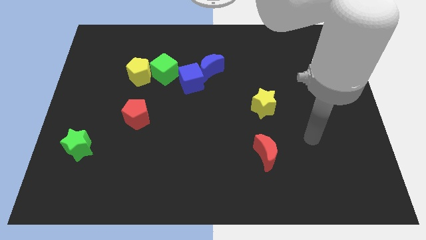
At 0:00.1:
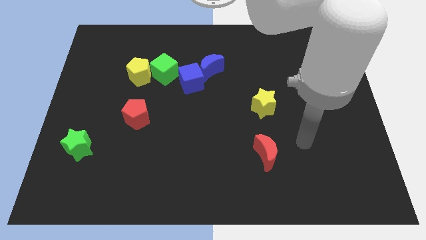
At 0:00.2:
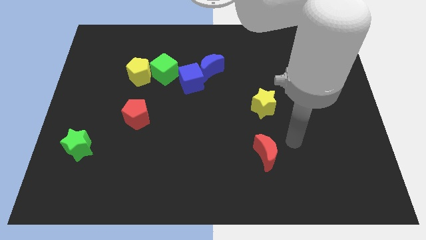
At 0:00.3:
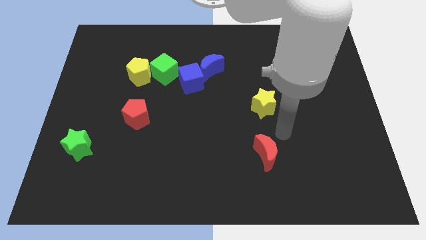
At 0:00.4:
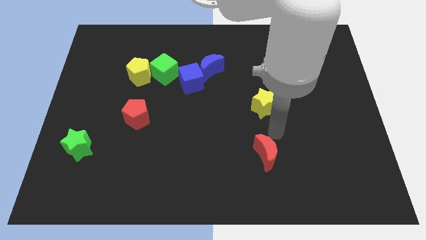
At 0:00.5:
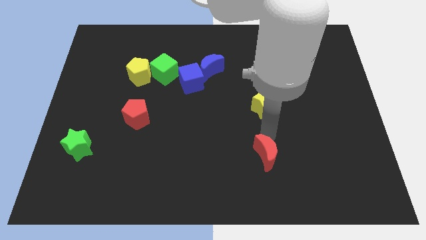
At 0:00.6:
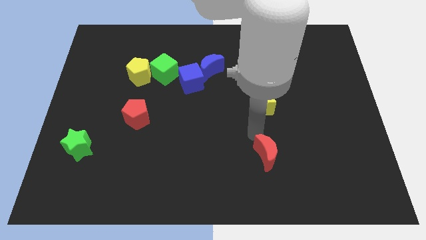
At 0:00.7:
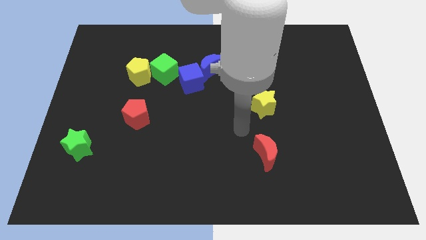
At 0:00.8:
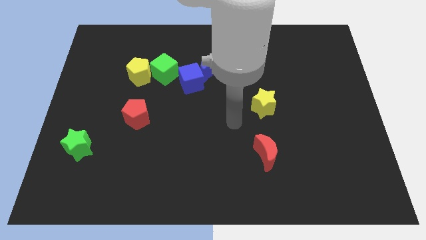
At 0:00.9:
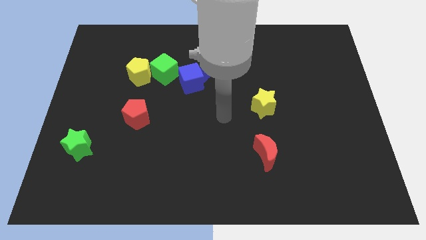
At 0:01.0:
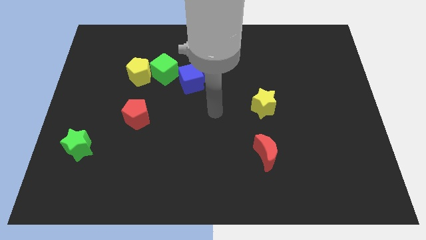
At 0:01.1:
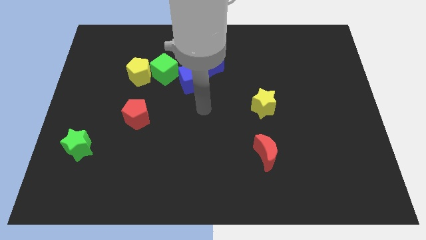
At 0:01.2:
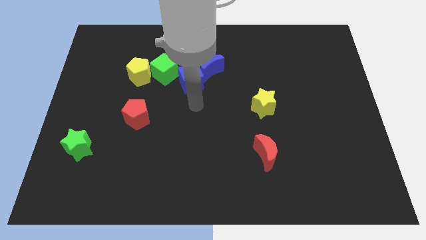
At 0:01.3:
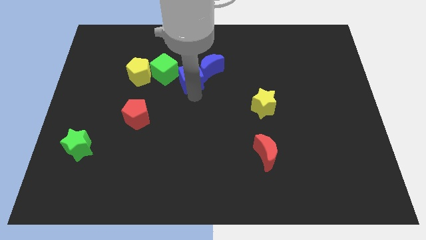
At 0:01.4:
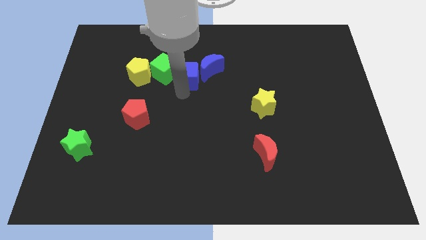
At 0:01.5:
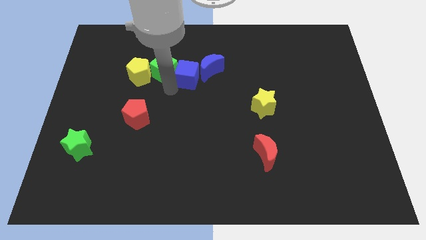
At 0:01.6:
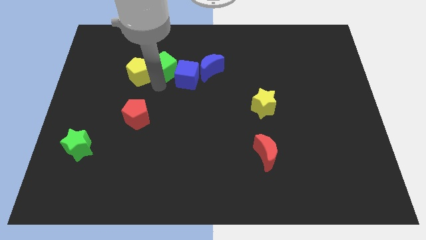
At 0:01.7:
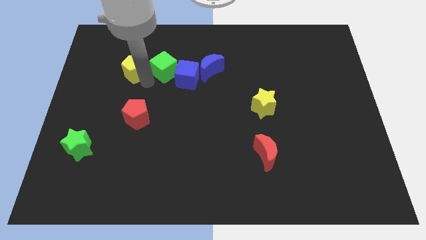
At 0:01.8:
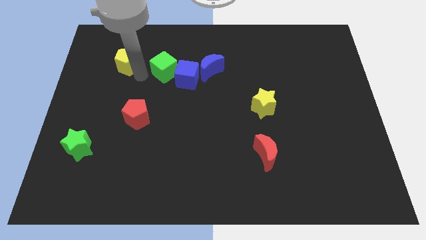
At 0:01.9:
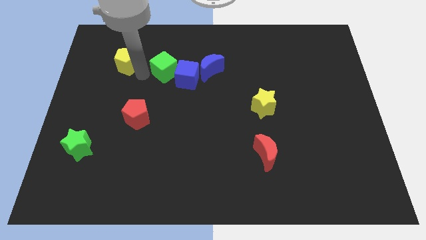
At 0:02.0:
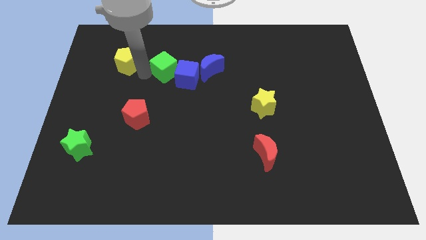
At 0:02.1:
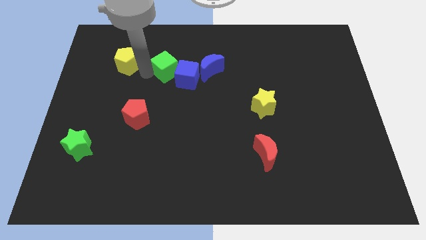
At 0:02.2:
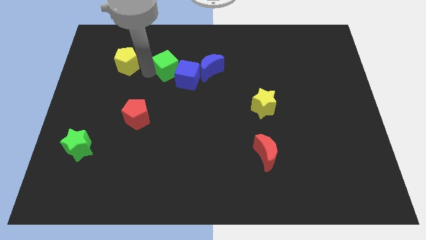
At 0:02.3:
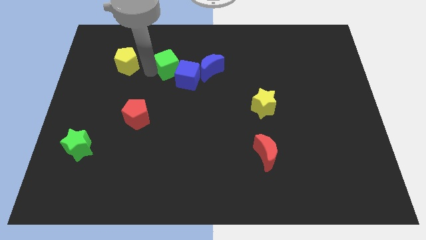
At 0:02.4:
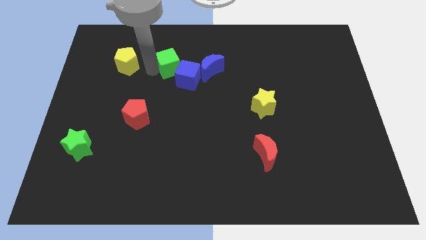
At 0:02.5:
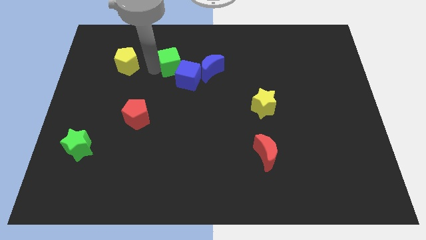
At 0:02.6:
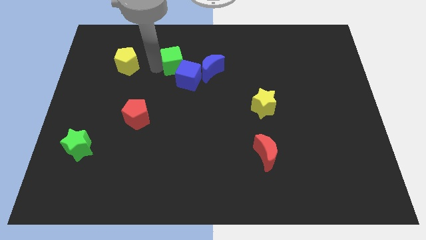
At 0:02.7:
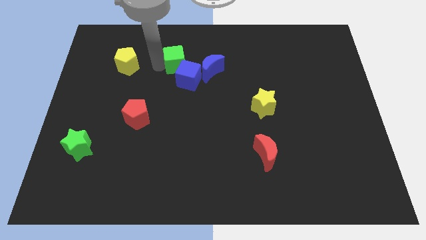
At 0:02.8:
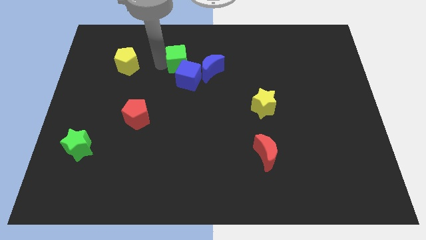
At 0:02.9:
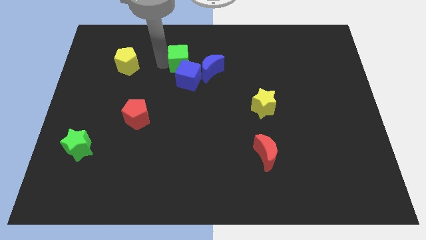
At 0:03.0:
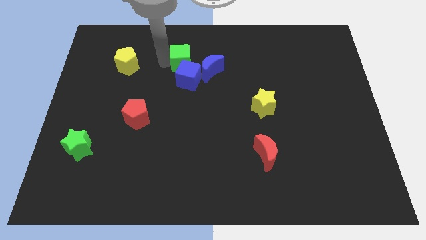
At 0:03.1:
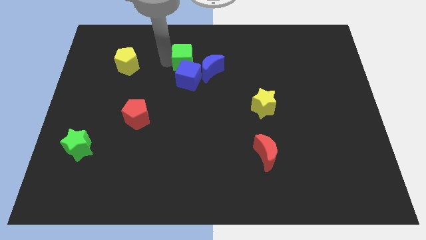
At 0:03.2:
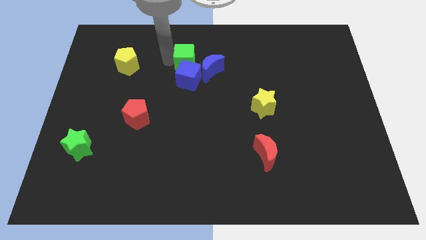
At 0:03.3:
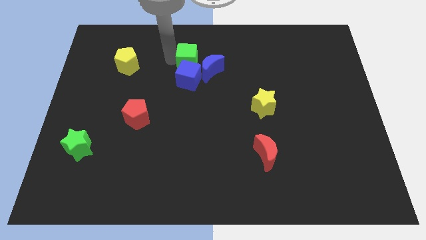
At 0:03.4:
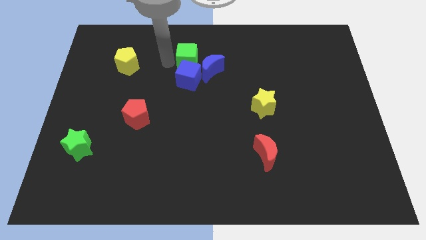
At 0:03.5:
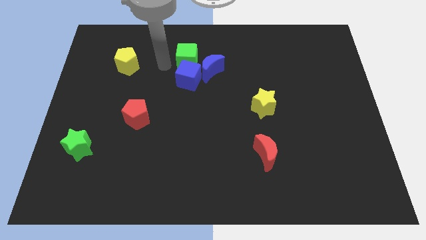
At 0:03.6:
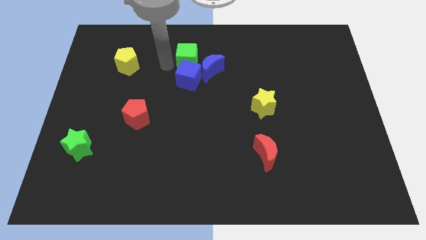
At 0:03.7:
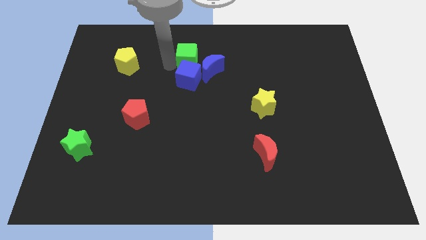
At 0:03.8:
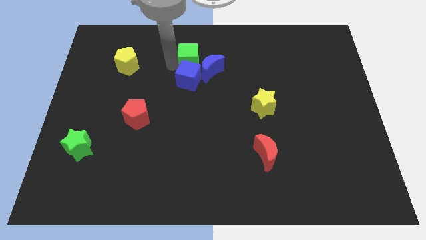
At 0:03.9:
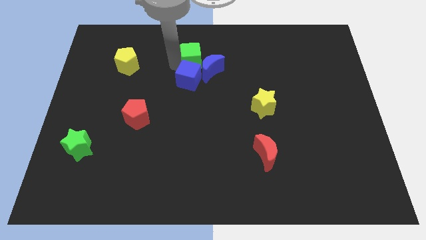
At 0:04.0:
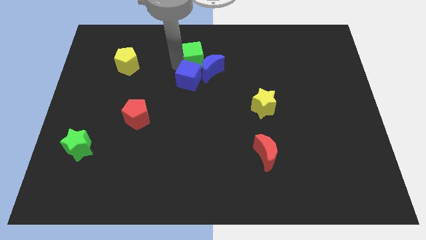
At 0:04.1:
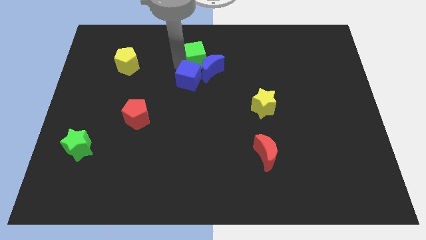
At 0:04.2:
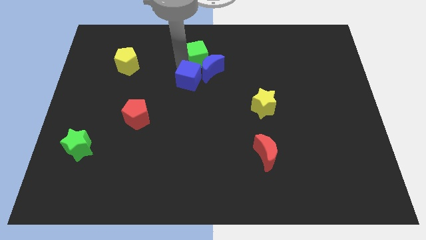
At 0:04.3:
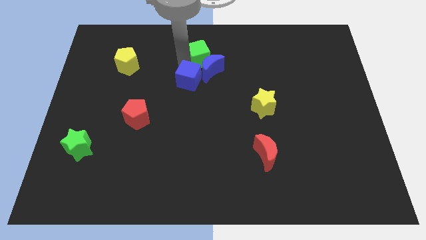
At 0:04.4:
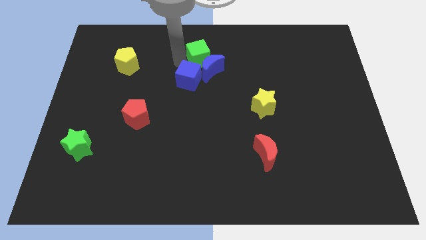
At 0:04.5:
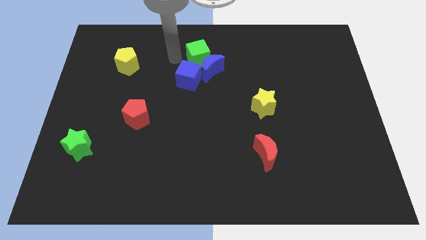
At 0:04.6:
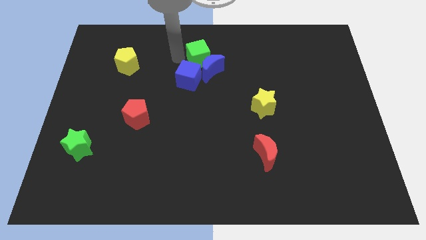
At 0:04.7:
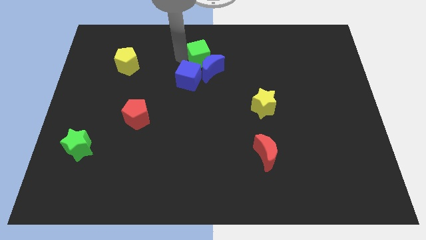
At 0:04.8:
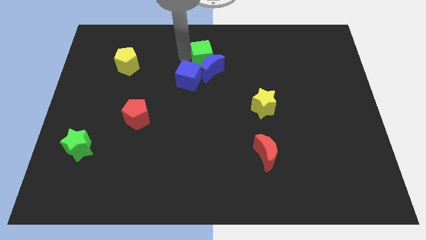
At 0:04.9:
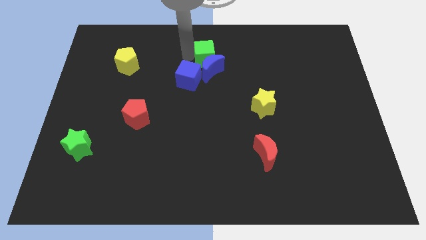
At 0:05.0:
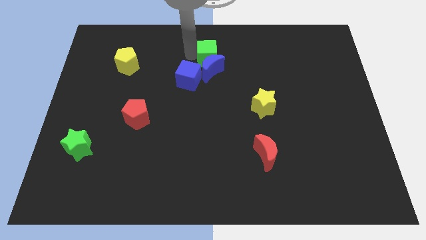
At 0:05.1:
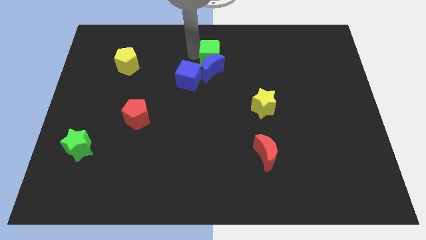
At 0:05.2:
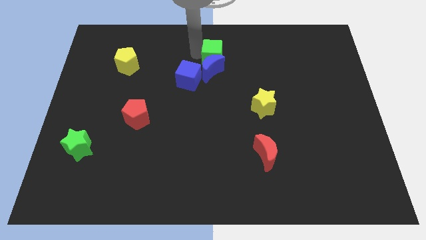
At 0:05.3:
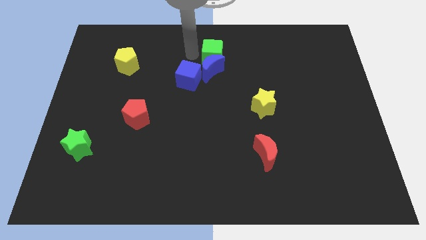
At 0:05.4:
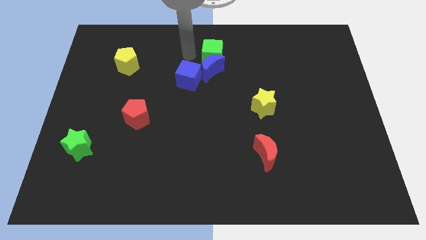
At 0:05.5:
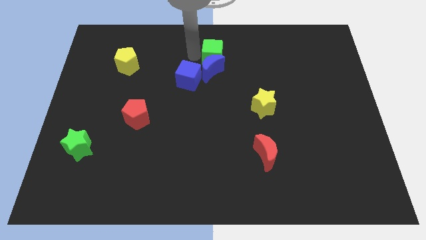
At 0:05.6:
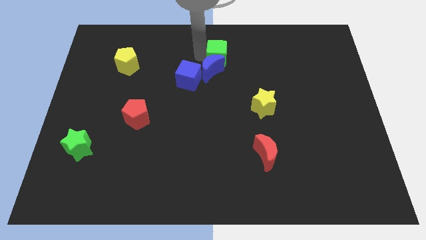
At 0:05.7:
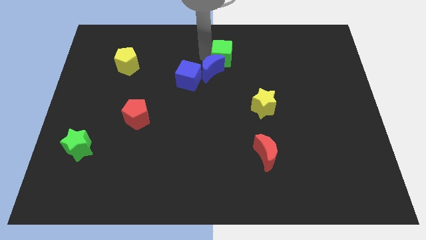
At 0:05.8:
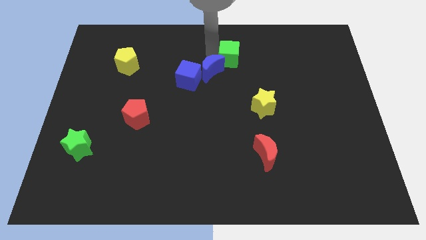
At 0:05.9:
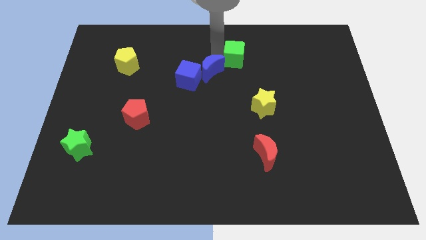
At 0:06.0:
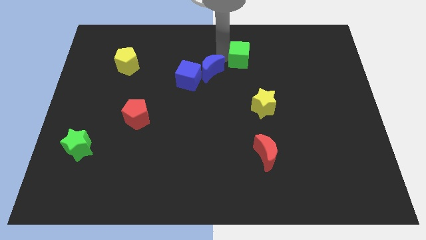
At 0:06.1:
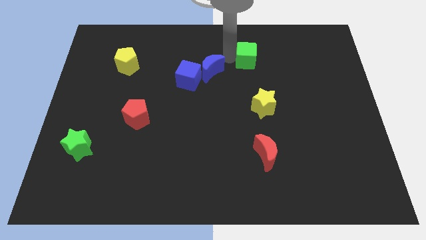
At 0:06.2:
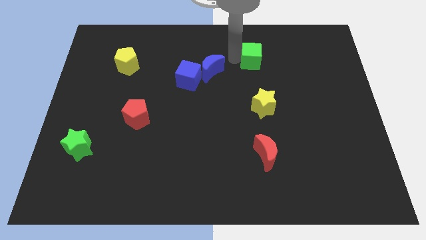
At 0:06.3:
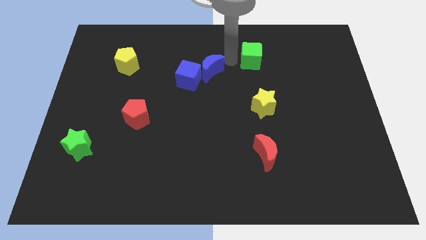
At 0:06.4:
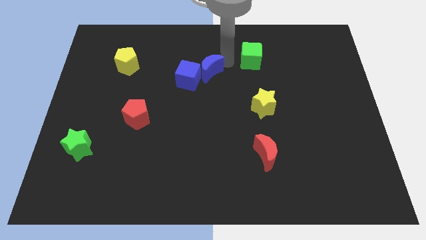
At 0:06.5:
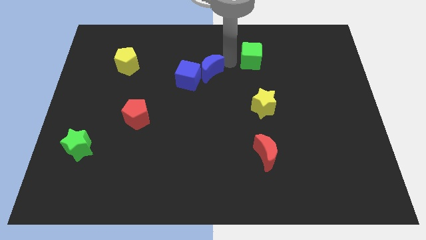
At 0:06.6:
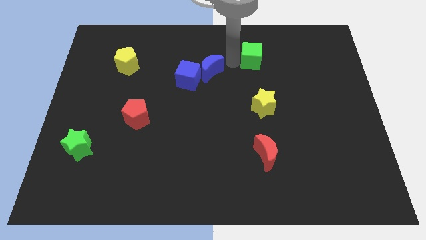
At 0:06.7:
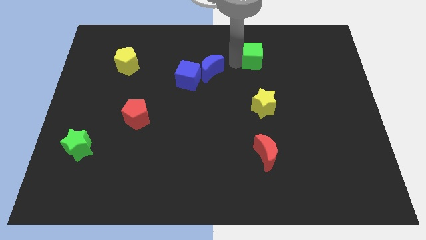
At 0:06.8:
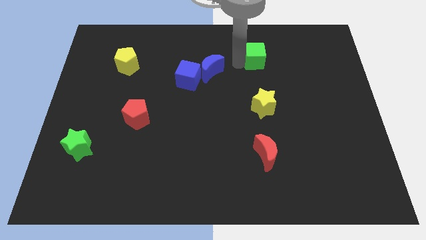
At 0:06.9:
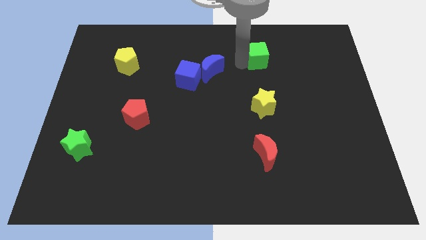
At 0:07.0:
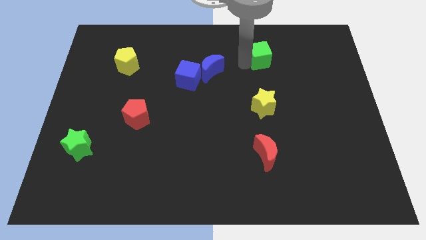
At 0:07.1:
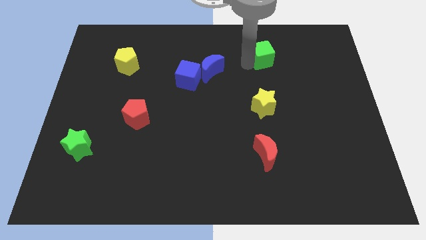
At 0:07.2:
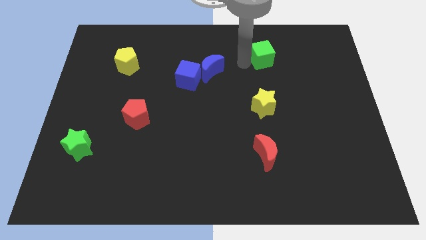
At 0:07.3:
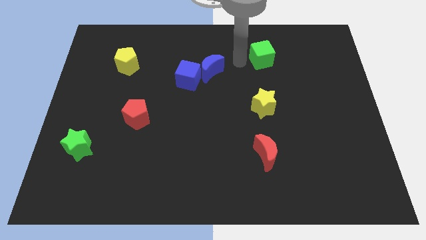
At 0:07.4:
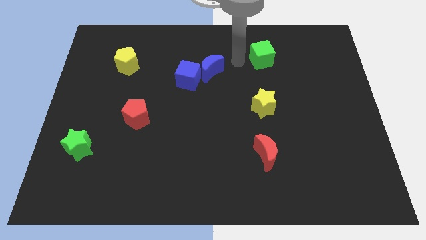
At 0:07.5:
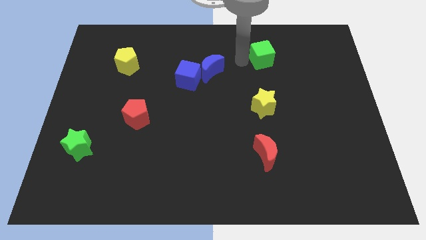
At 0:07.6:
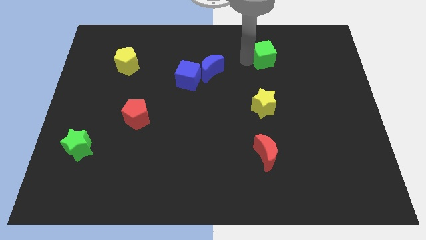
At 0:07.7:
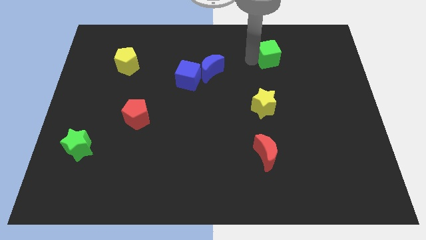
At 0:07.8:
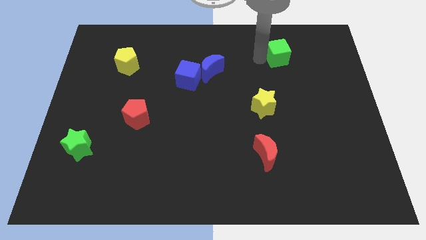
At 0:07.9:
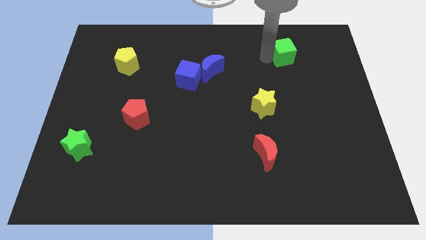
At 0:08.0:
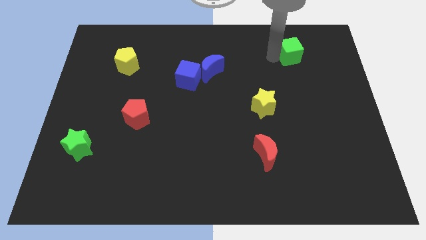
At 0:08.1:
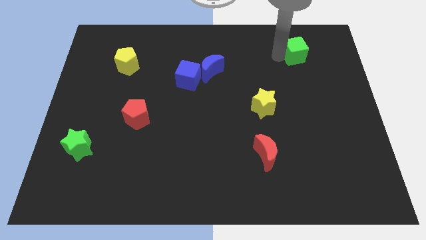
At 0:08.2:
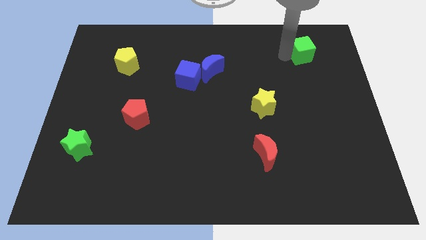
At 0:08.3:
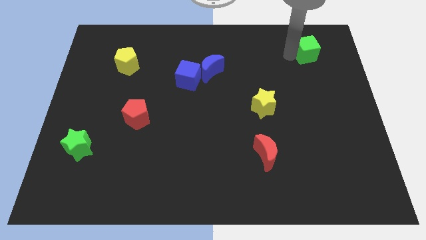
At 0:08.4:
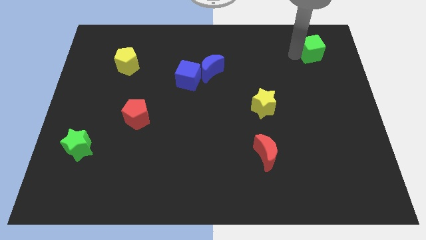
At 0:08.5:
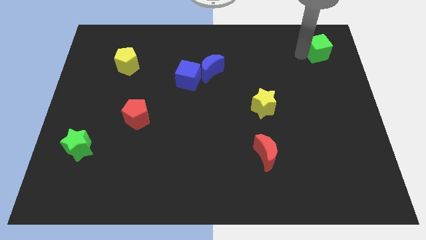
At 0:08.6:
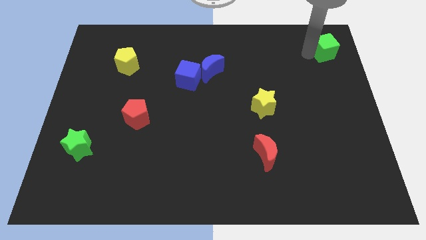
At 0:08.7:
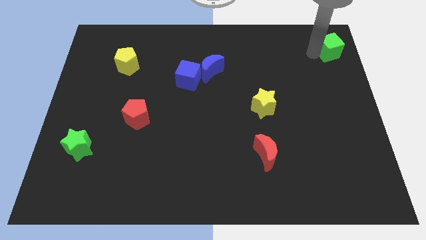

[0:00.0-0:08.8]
push the green cube to the top right of the board
